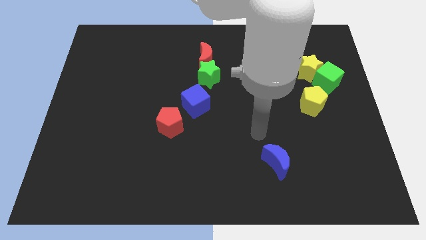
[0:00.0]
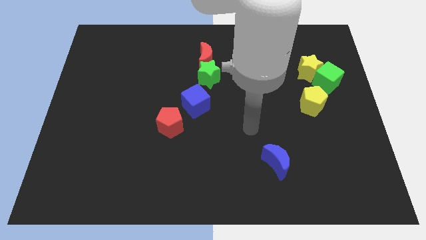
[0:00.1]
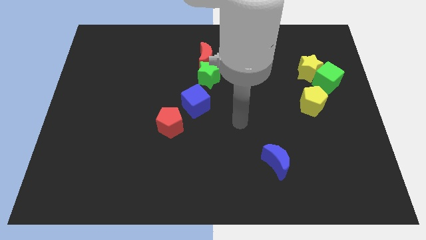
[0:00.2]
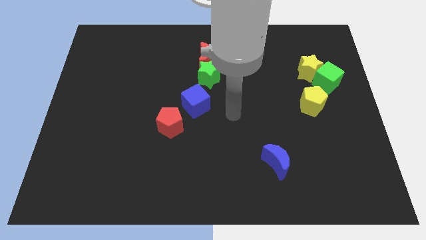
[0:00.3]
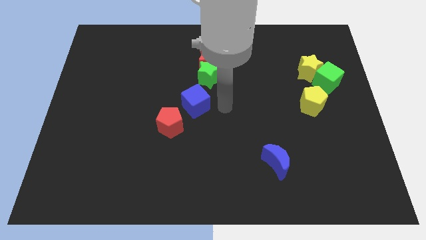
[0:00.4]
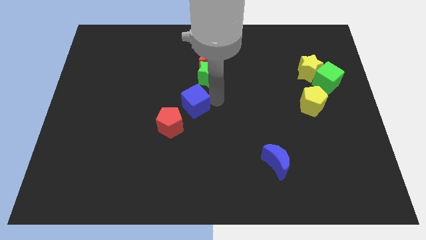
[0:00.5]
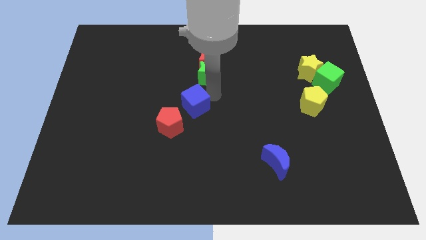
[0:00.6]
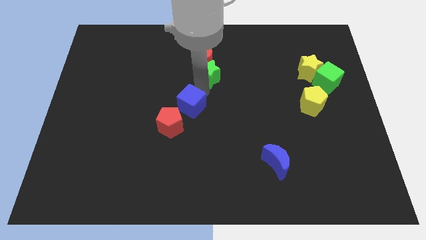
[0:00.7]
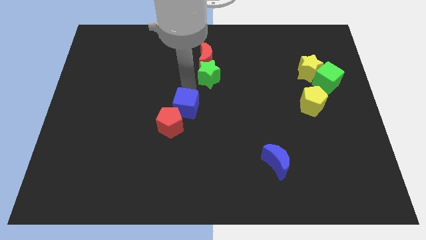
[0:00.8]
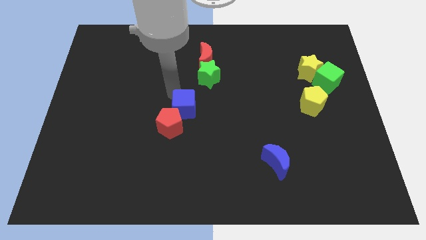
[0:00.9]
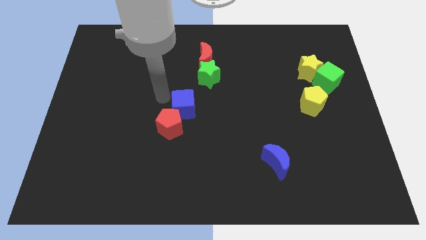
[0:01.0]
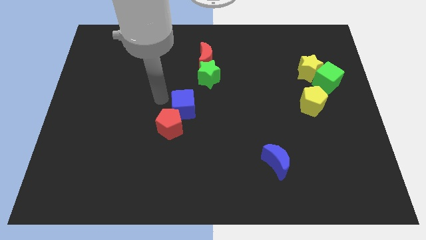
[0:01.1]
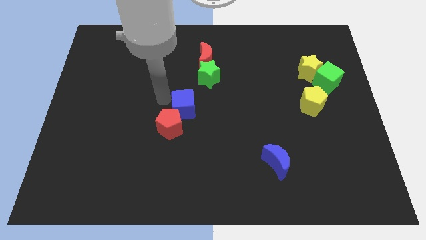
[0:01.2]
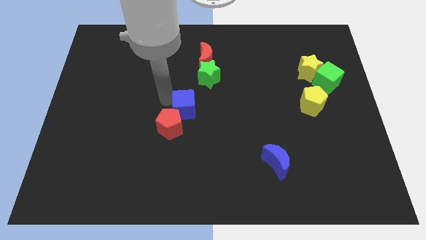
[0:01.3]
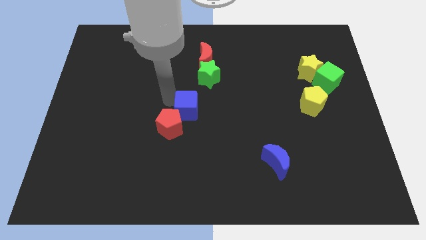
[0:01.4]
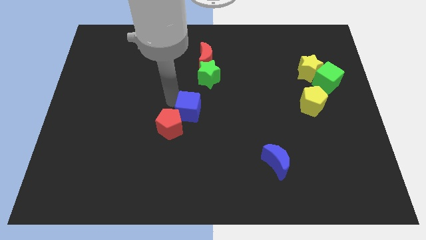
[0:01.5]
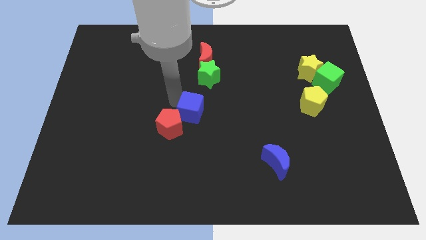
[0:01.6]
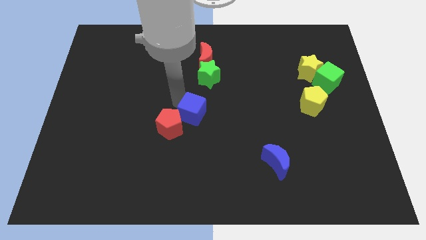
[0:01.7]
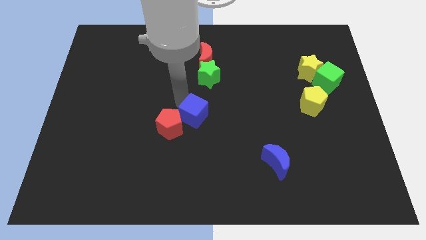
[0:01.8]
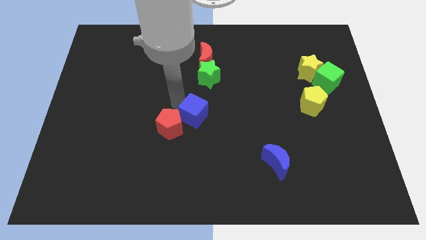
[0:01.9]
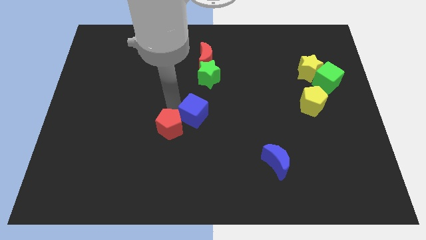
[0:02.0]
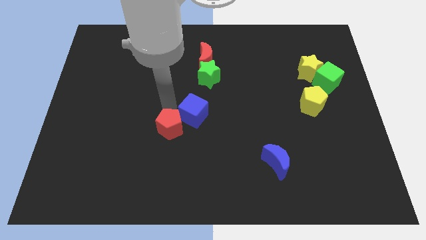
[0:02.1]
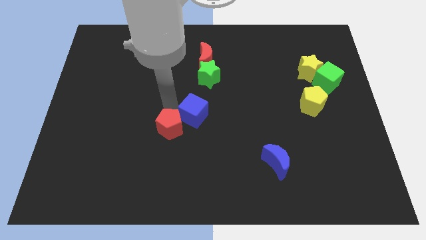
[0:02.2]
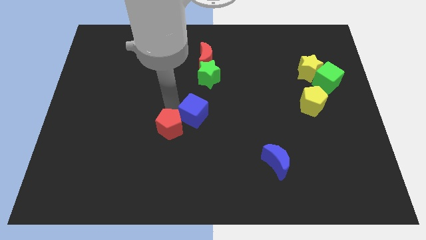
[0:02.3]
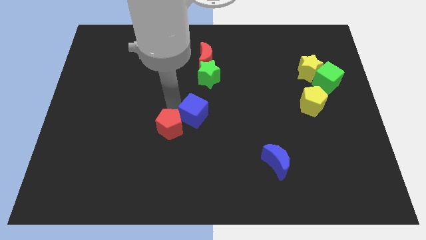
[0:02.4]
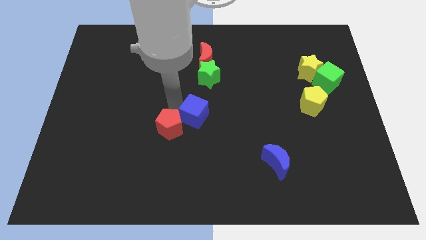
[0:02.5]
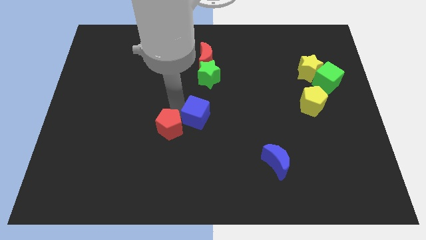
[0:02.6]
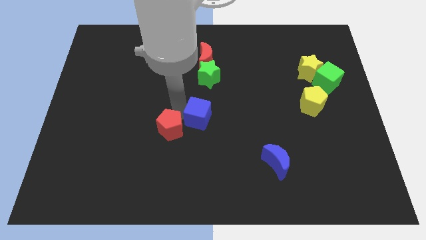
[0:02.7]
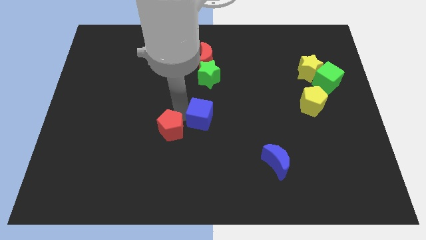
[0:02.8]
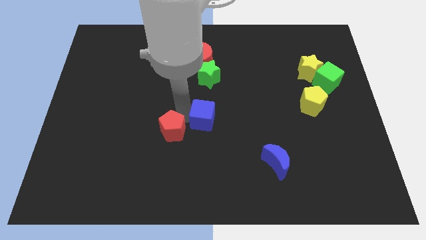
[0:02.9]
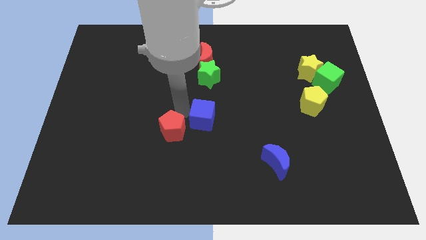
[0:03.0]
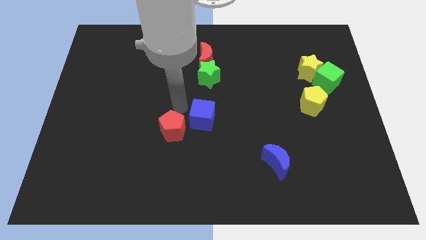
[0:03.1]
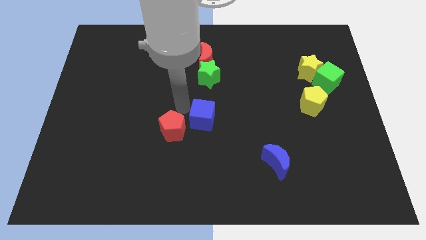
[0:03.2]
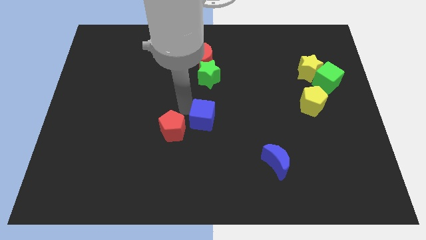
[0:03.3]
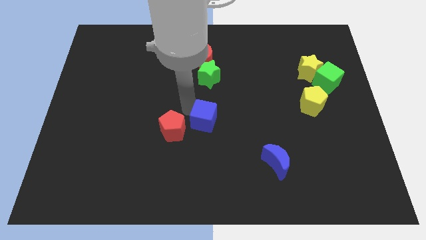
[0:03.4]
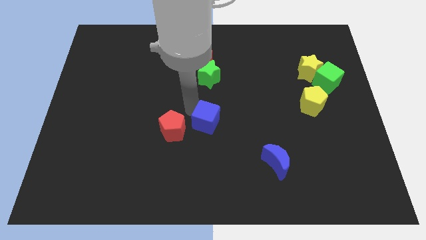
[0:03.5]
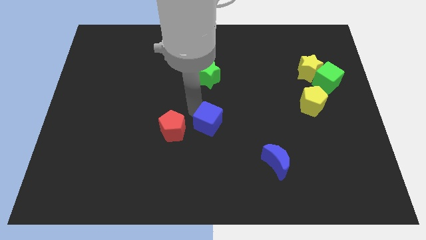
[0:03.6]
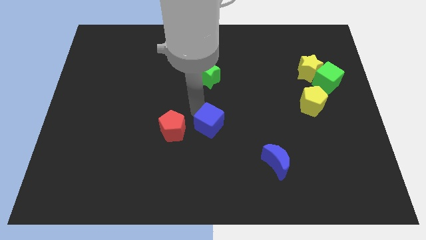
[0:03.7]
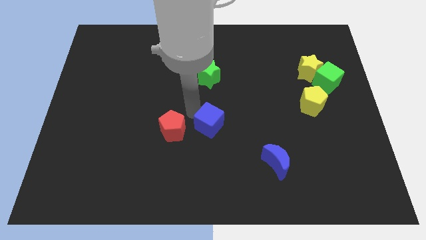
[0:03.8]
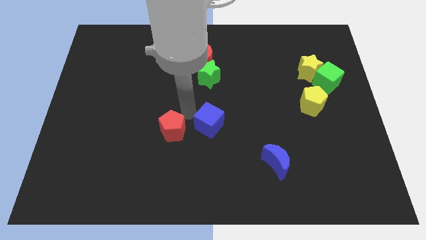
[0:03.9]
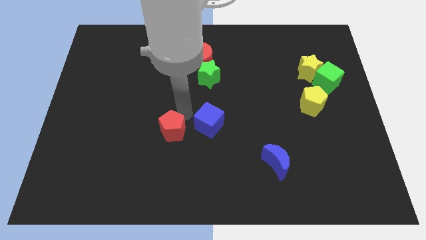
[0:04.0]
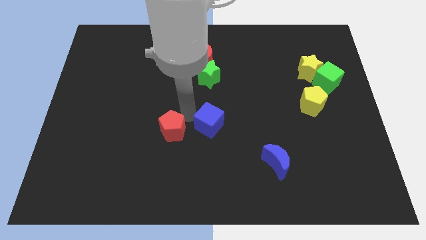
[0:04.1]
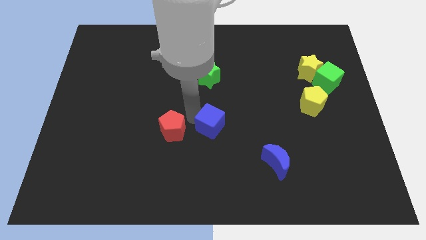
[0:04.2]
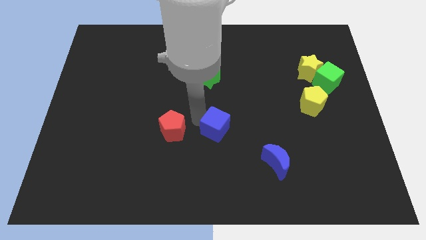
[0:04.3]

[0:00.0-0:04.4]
push the blue cube a little bit down and right

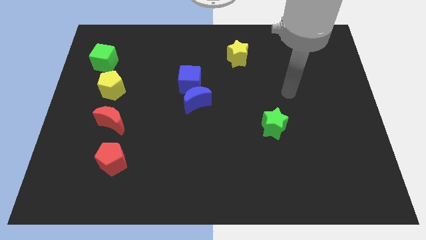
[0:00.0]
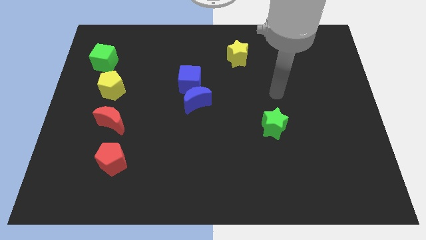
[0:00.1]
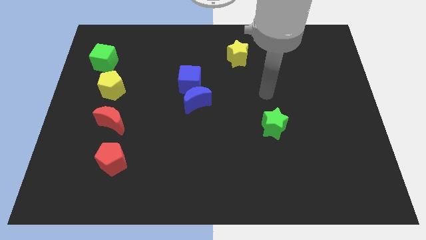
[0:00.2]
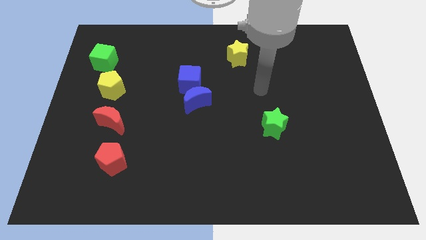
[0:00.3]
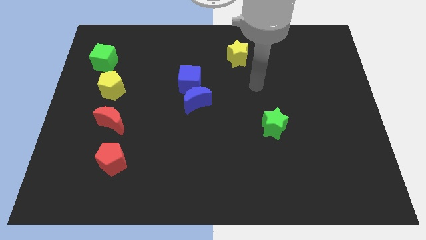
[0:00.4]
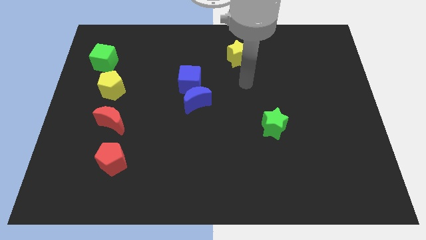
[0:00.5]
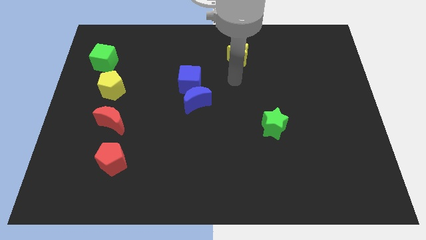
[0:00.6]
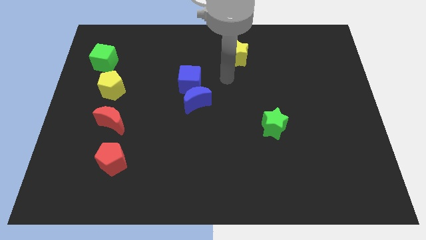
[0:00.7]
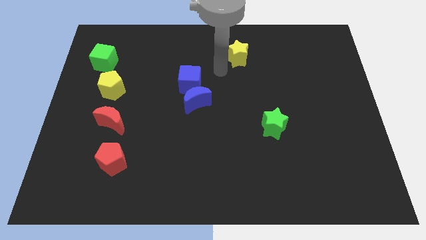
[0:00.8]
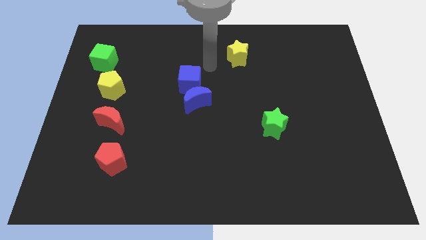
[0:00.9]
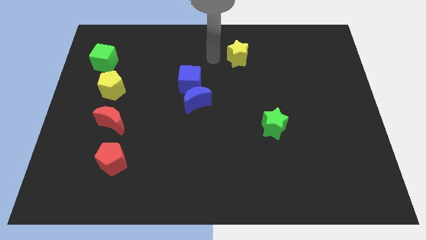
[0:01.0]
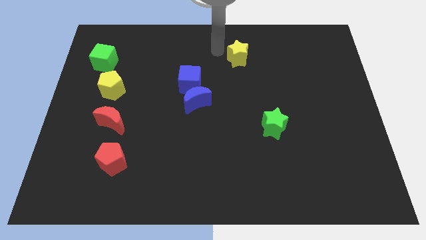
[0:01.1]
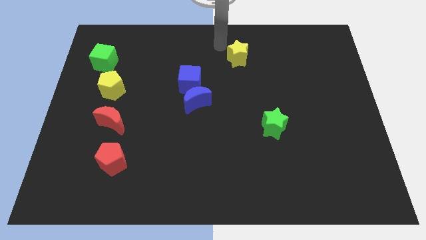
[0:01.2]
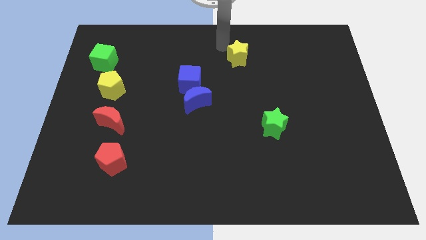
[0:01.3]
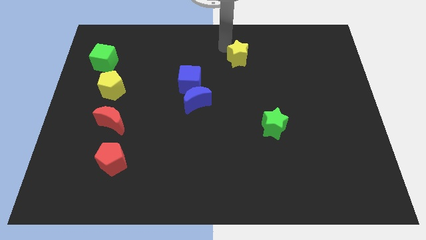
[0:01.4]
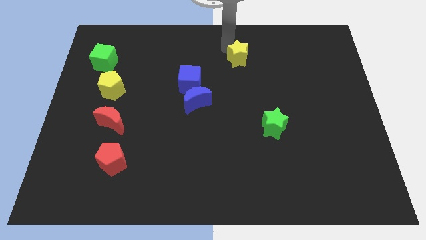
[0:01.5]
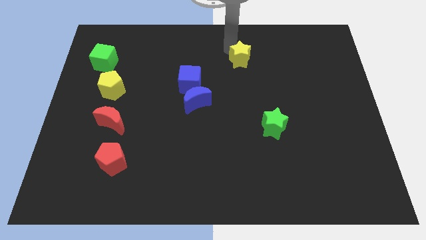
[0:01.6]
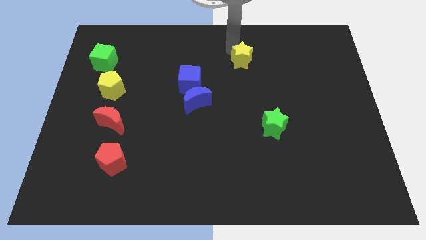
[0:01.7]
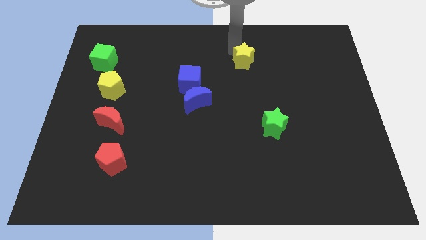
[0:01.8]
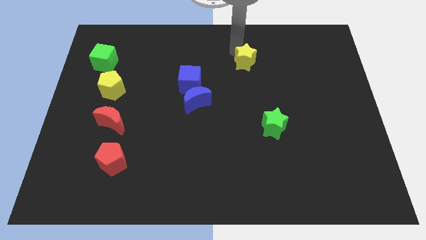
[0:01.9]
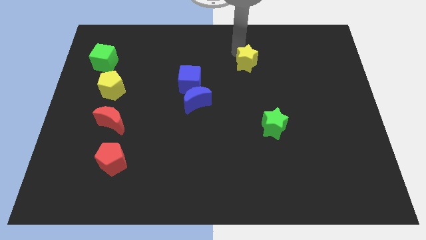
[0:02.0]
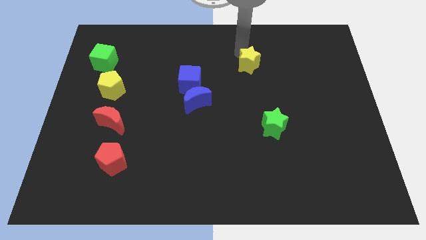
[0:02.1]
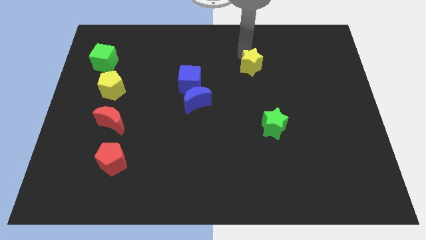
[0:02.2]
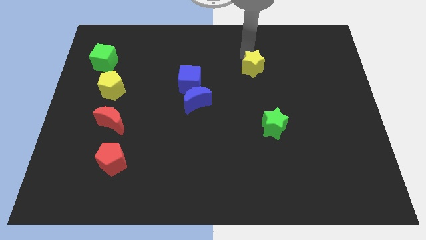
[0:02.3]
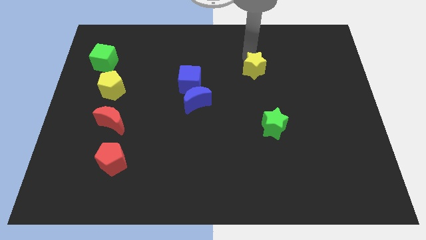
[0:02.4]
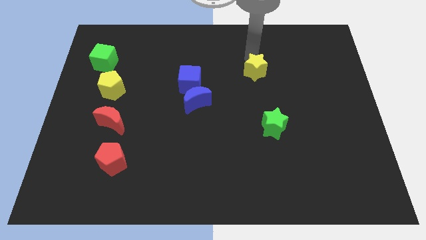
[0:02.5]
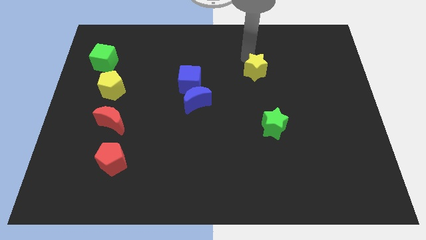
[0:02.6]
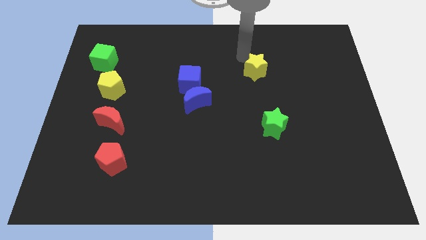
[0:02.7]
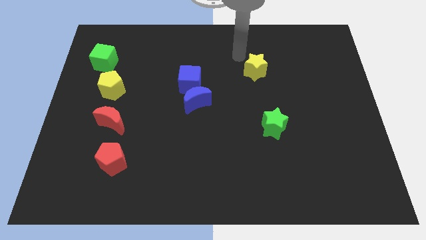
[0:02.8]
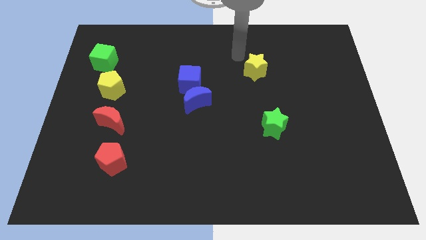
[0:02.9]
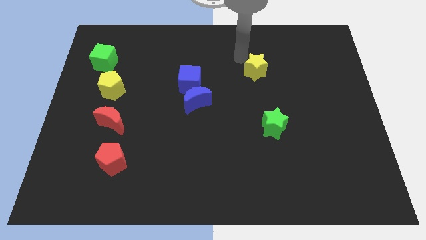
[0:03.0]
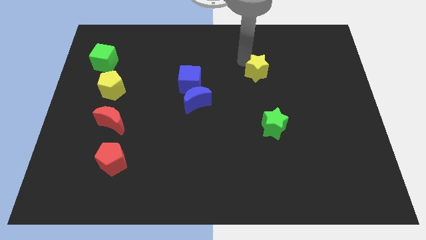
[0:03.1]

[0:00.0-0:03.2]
move the yellow star diagonally down and to the right slightly

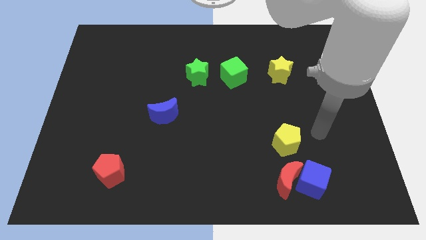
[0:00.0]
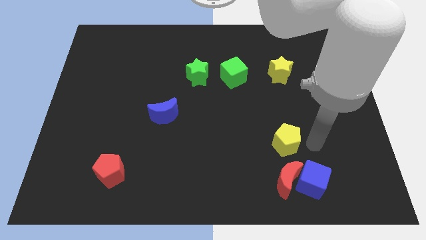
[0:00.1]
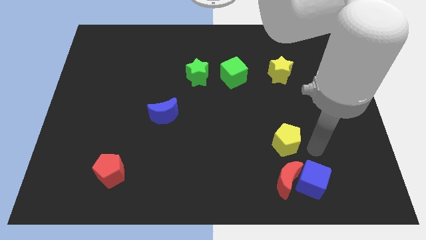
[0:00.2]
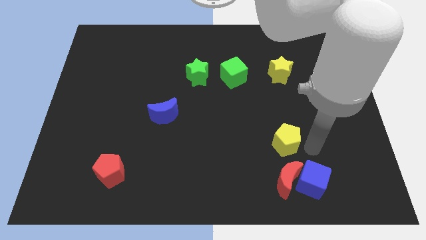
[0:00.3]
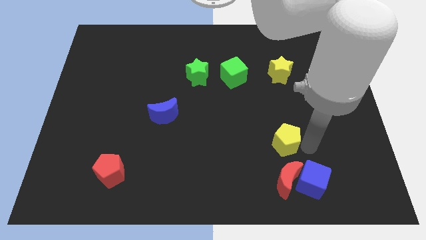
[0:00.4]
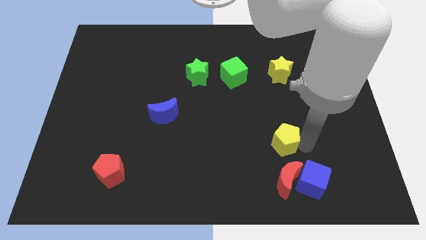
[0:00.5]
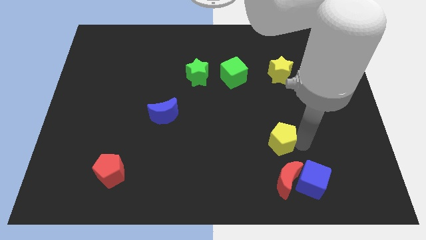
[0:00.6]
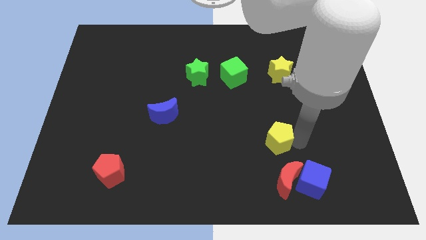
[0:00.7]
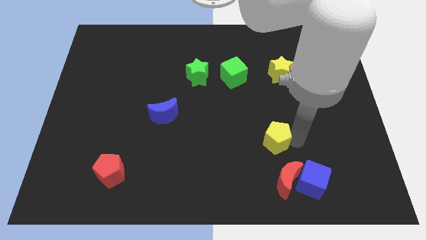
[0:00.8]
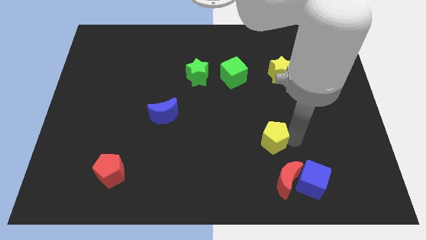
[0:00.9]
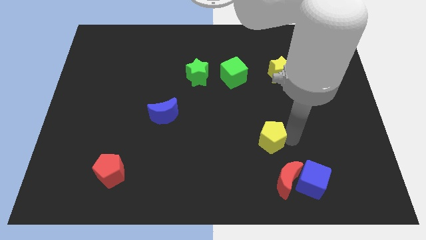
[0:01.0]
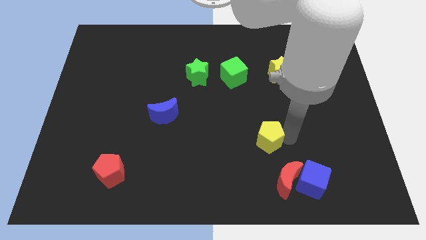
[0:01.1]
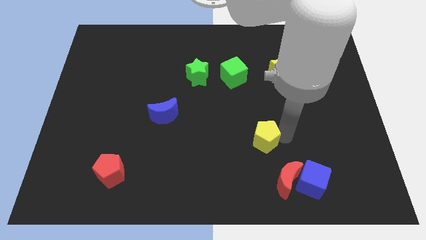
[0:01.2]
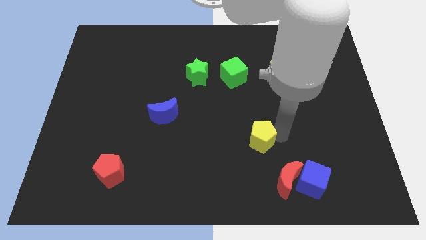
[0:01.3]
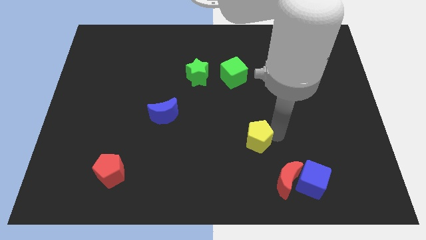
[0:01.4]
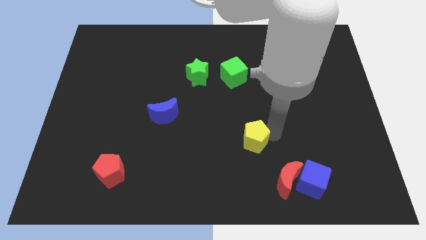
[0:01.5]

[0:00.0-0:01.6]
slightly push the yellow pentagon left
